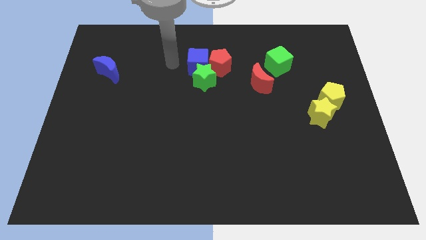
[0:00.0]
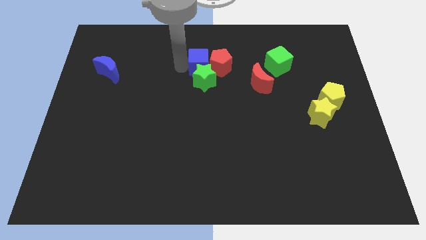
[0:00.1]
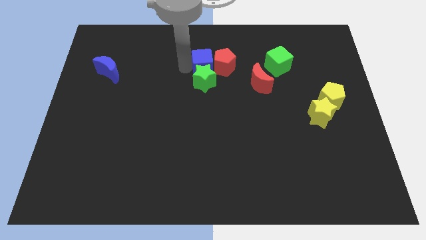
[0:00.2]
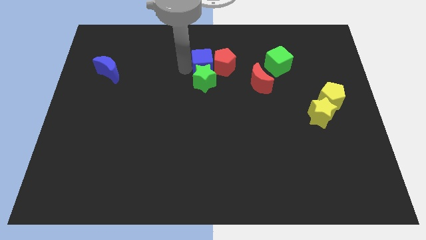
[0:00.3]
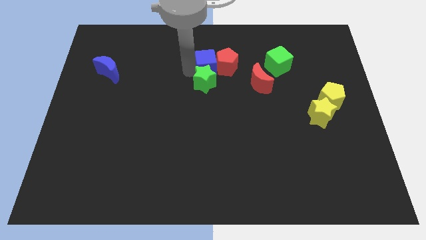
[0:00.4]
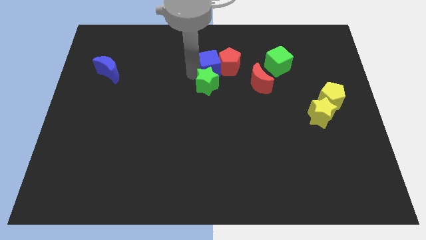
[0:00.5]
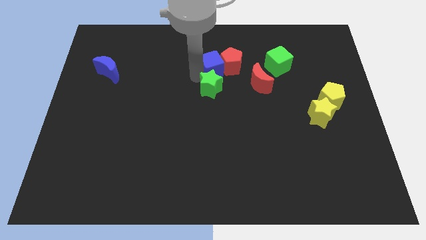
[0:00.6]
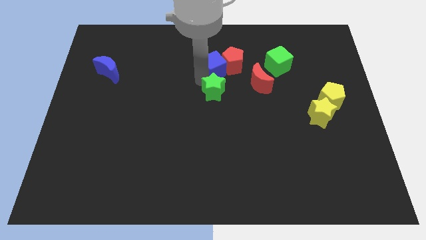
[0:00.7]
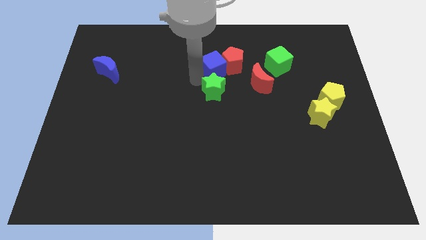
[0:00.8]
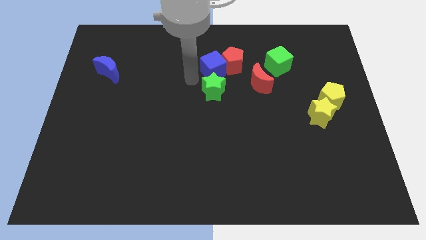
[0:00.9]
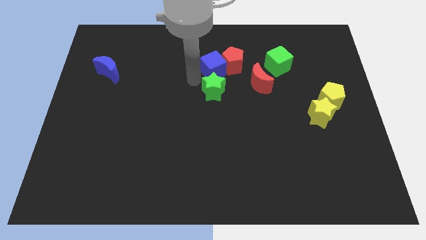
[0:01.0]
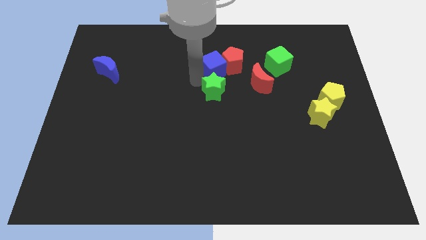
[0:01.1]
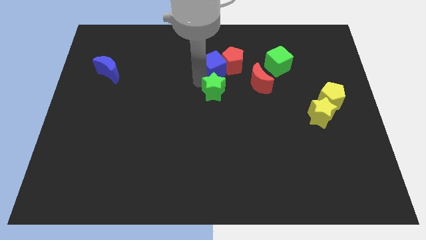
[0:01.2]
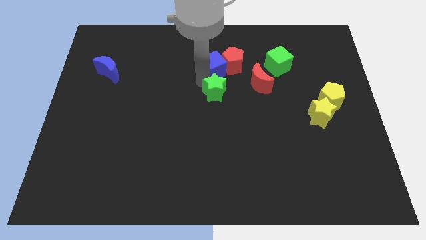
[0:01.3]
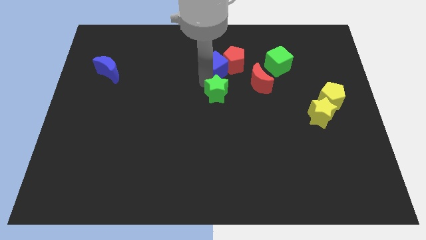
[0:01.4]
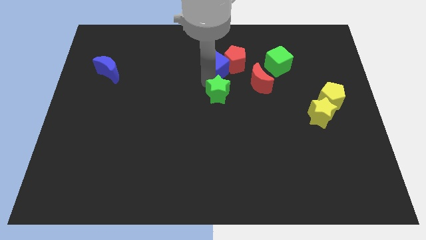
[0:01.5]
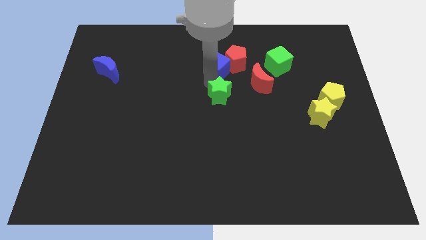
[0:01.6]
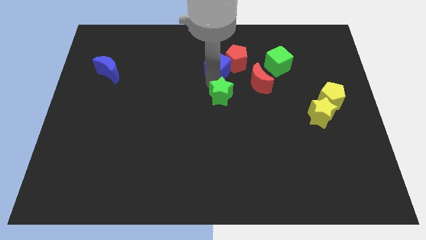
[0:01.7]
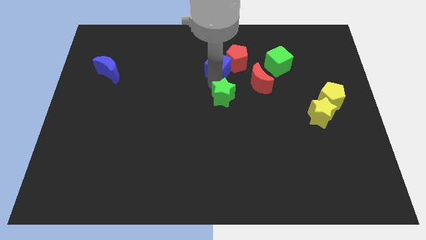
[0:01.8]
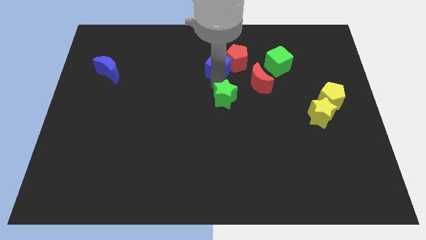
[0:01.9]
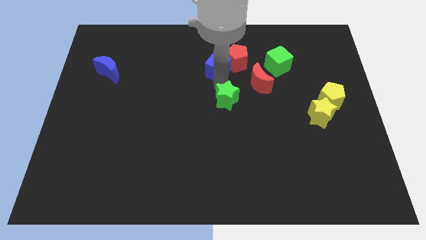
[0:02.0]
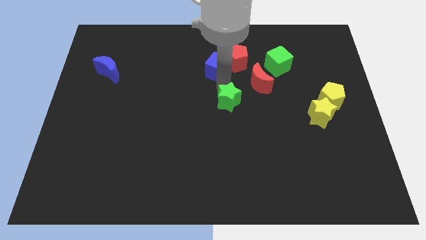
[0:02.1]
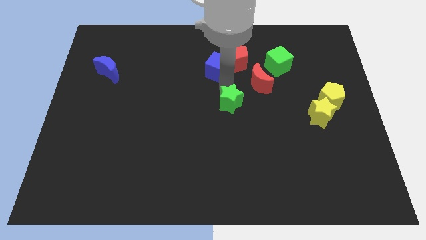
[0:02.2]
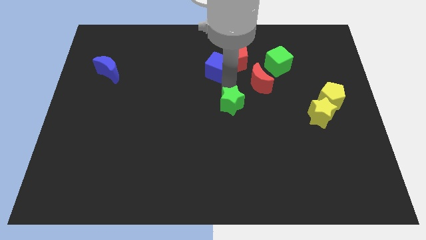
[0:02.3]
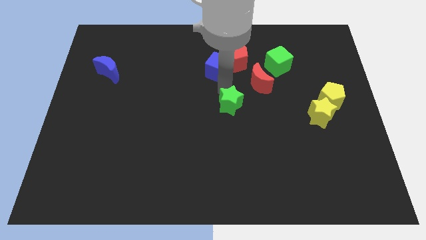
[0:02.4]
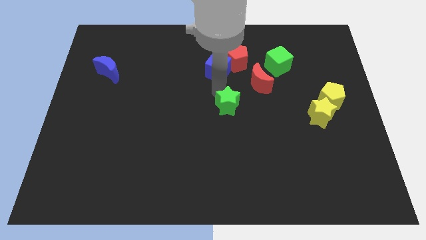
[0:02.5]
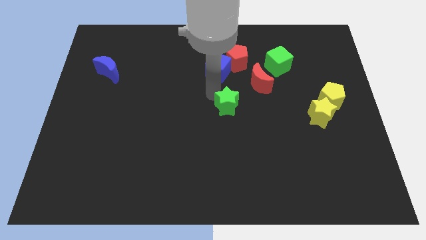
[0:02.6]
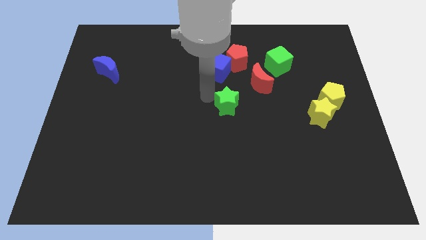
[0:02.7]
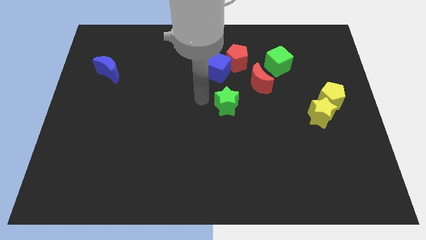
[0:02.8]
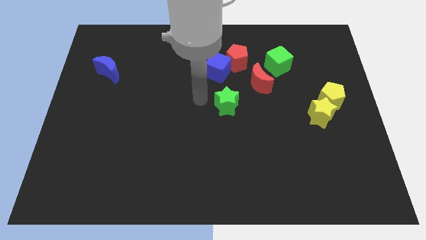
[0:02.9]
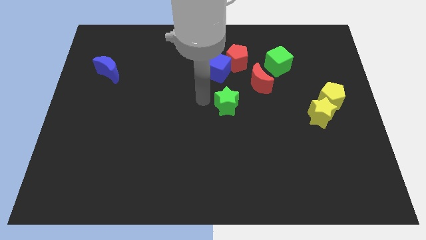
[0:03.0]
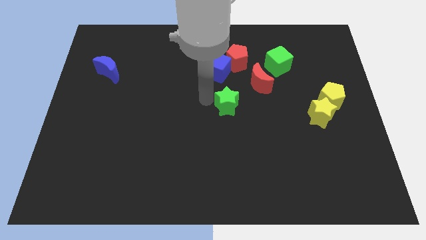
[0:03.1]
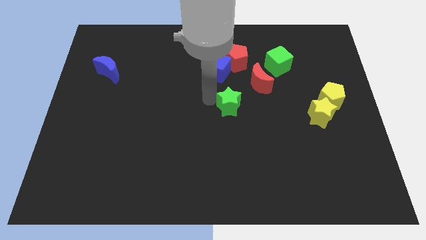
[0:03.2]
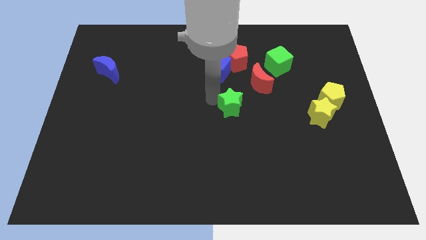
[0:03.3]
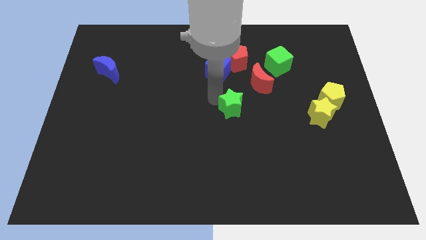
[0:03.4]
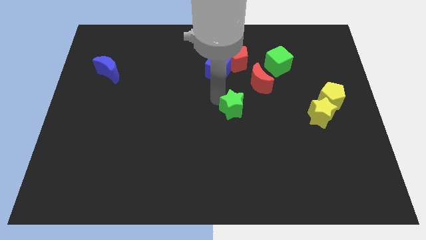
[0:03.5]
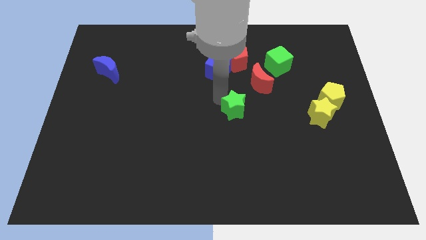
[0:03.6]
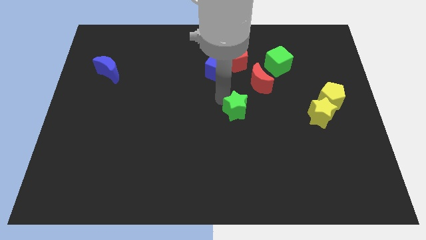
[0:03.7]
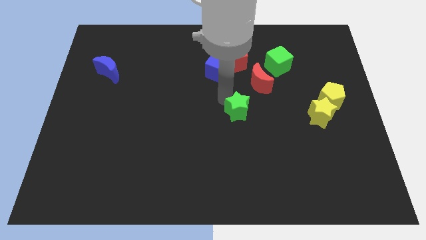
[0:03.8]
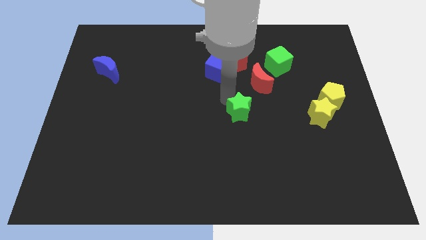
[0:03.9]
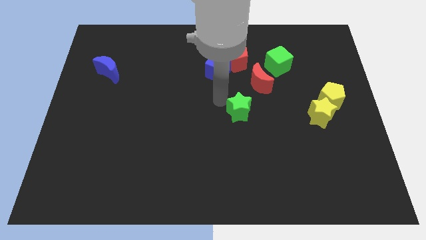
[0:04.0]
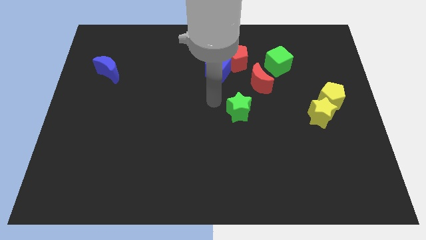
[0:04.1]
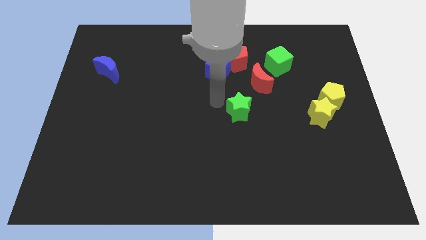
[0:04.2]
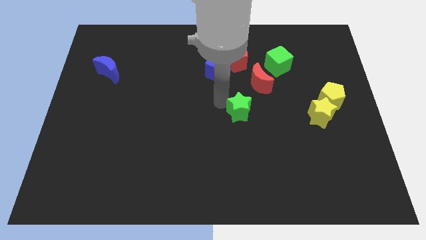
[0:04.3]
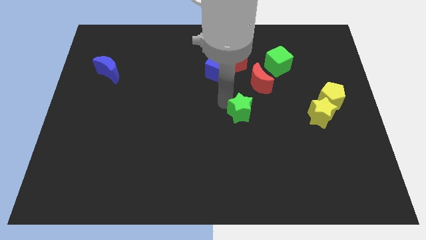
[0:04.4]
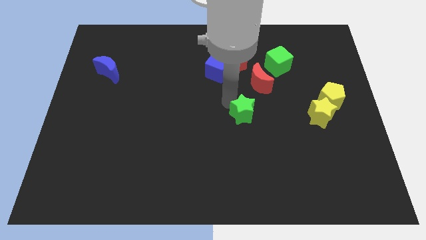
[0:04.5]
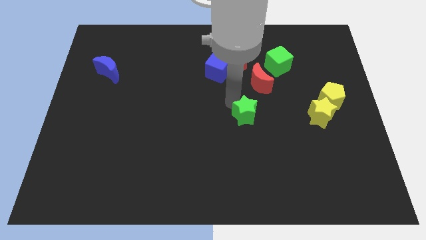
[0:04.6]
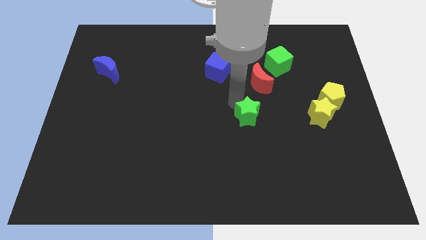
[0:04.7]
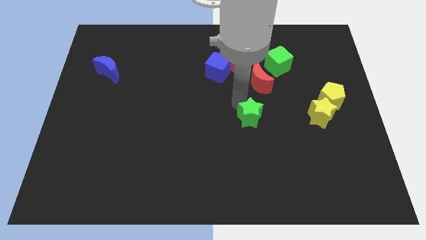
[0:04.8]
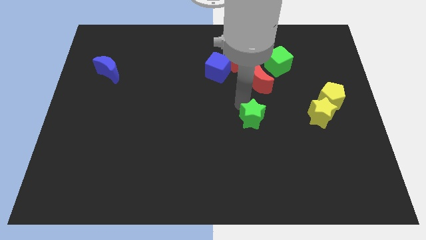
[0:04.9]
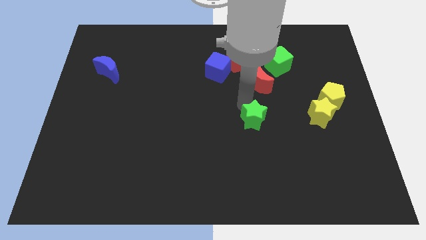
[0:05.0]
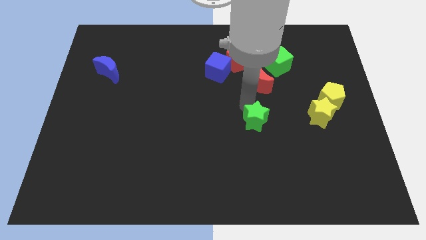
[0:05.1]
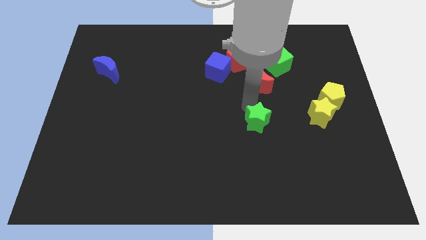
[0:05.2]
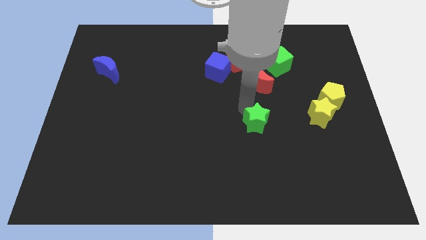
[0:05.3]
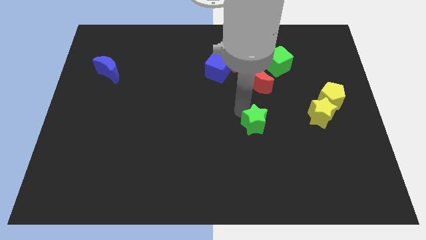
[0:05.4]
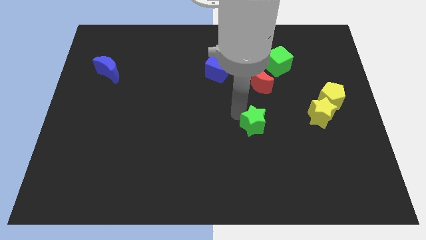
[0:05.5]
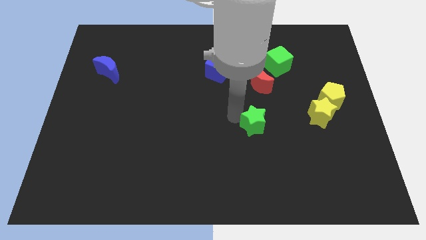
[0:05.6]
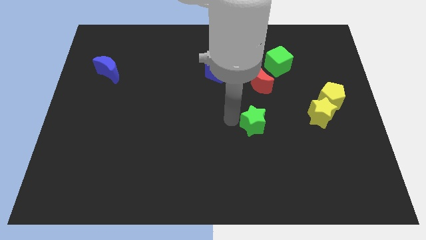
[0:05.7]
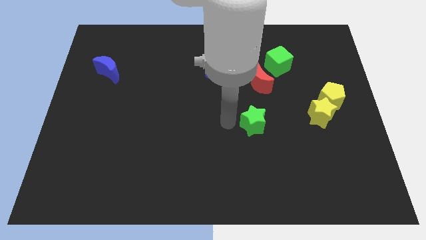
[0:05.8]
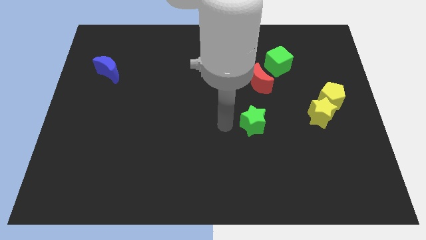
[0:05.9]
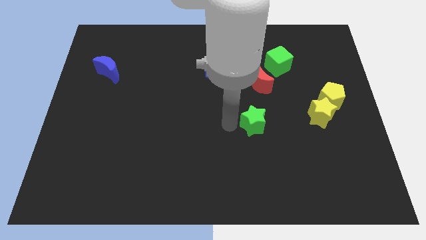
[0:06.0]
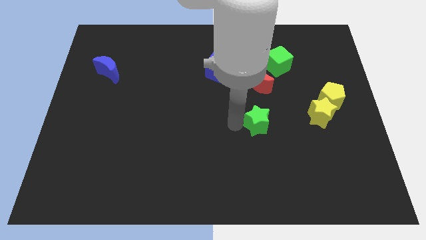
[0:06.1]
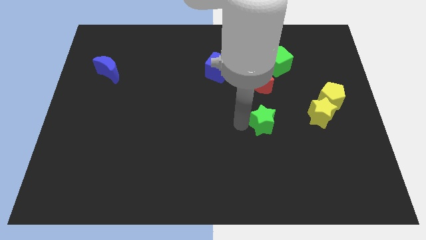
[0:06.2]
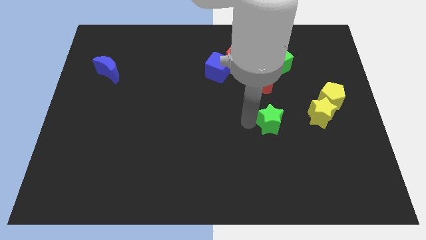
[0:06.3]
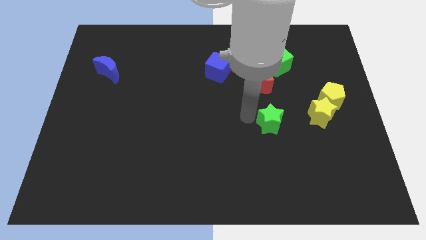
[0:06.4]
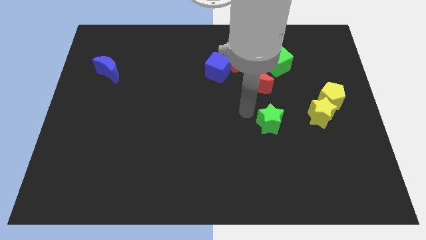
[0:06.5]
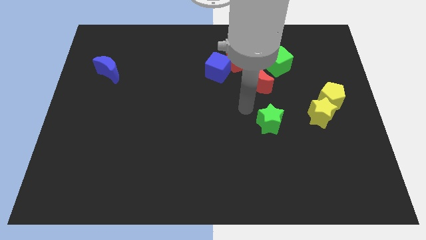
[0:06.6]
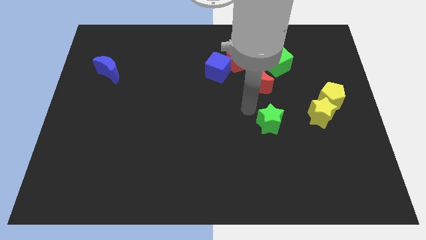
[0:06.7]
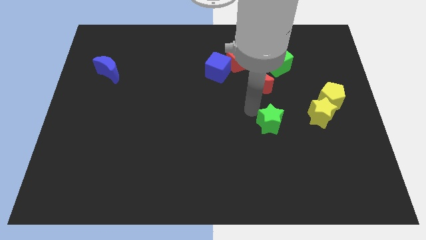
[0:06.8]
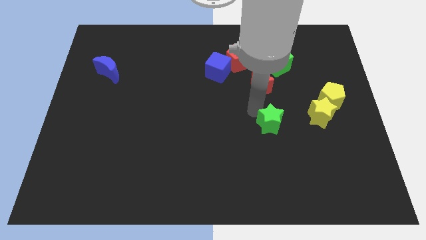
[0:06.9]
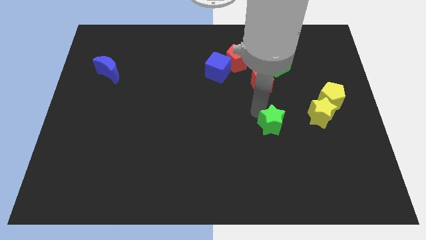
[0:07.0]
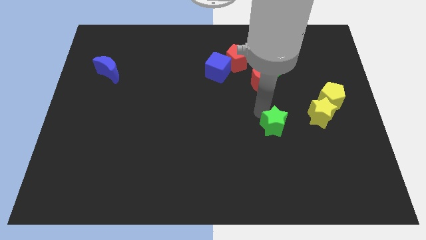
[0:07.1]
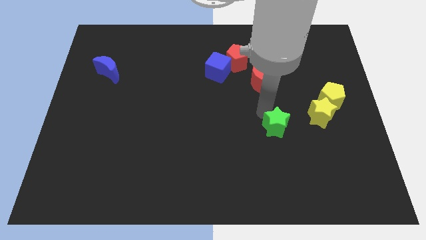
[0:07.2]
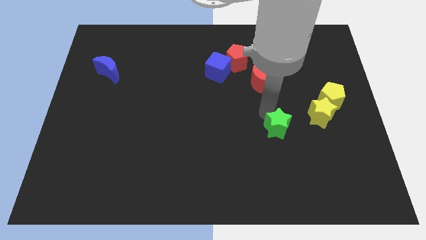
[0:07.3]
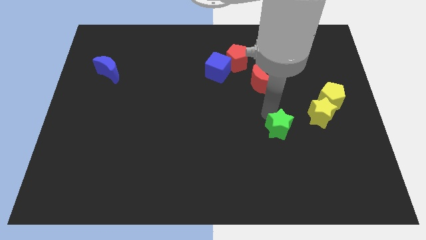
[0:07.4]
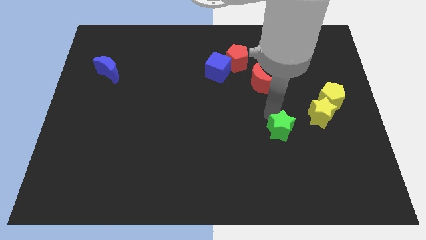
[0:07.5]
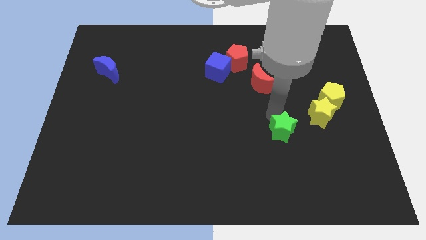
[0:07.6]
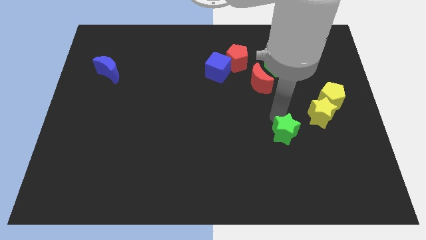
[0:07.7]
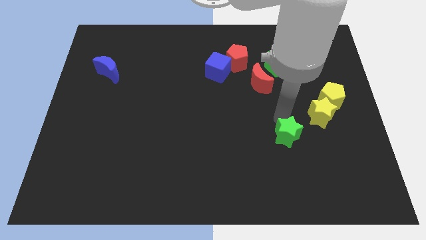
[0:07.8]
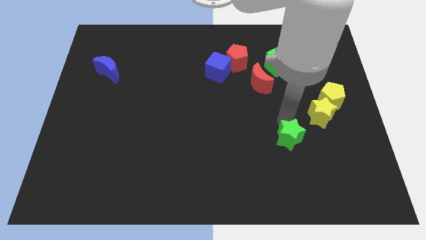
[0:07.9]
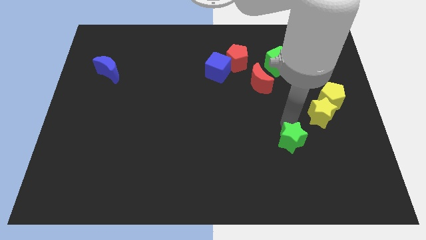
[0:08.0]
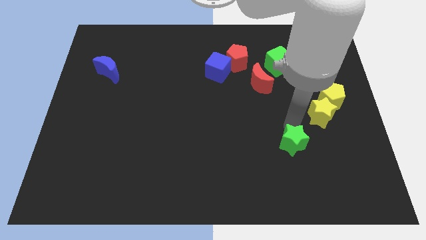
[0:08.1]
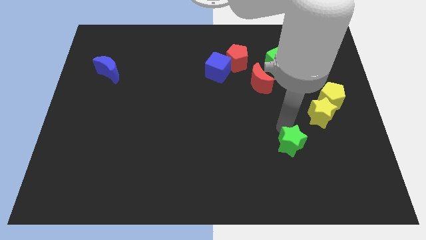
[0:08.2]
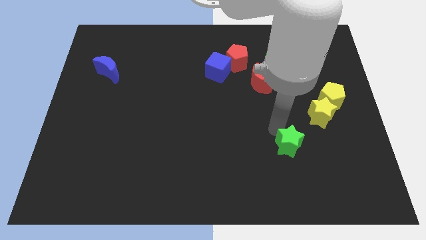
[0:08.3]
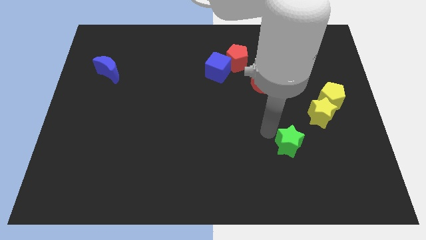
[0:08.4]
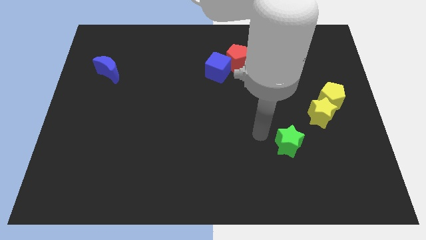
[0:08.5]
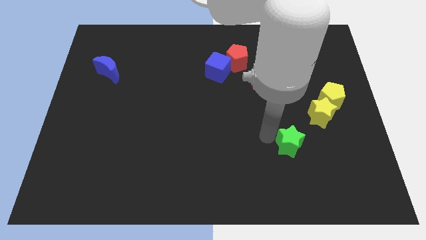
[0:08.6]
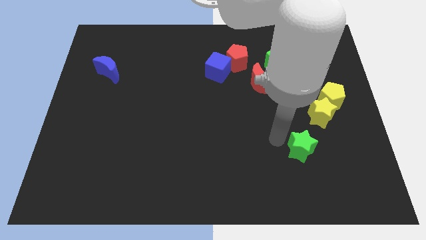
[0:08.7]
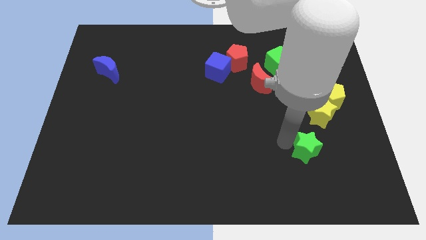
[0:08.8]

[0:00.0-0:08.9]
push the green star to the bottom side of the yellow star
